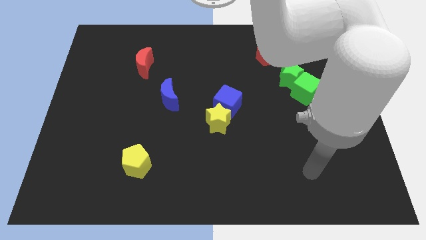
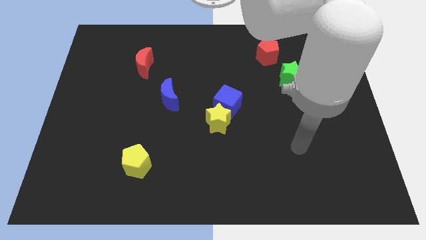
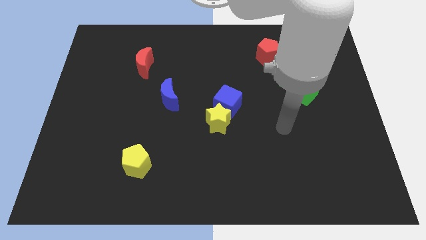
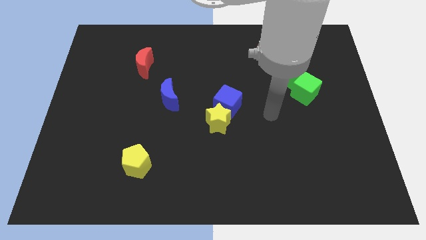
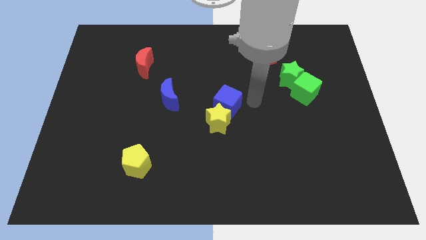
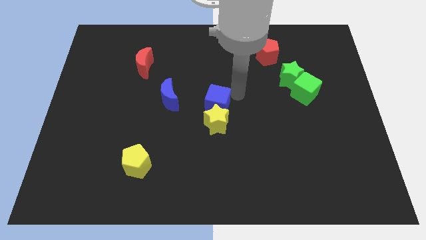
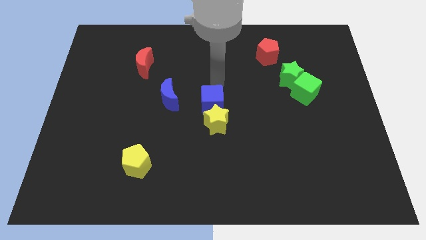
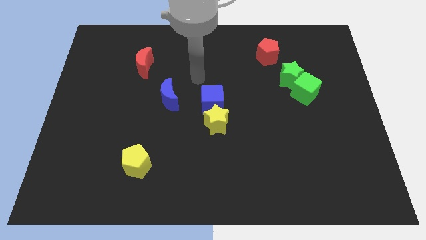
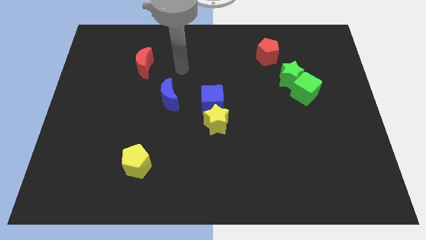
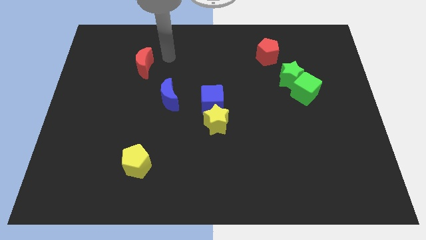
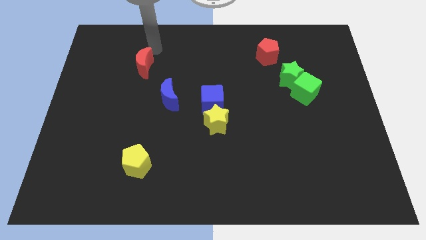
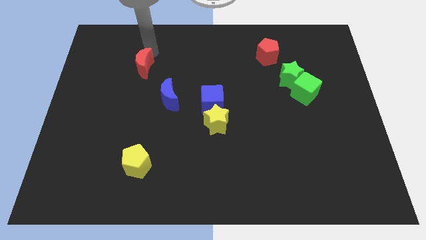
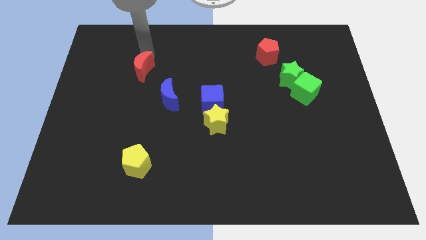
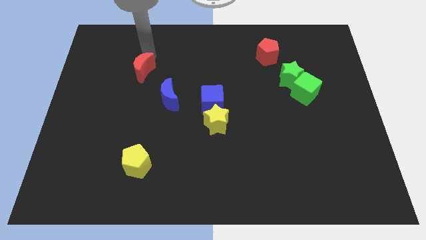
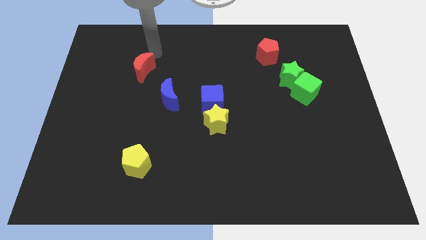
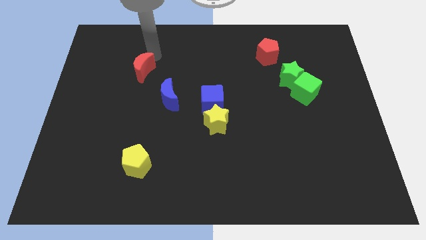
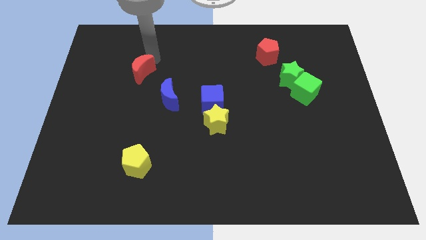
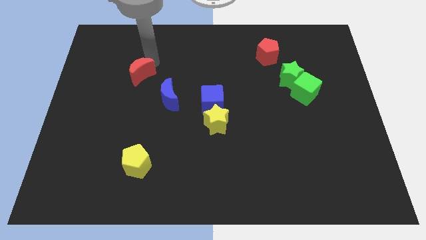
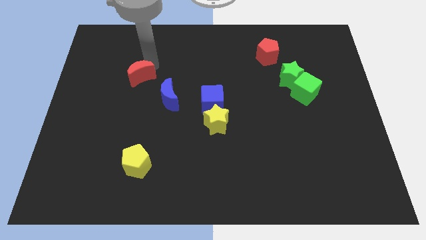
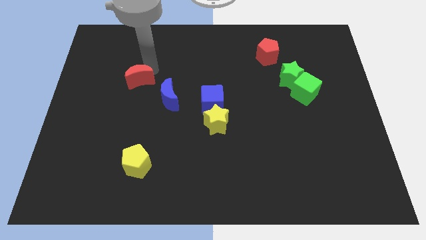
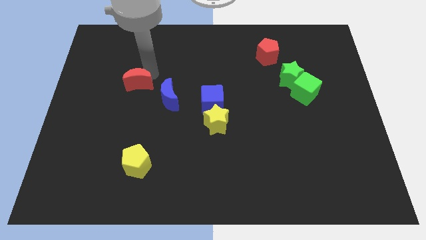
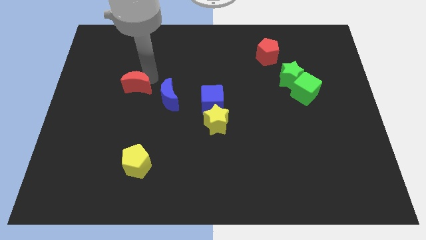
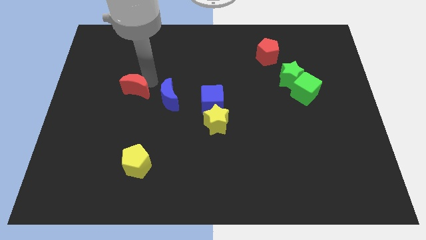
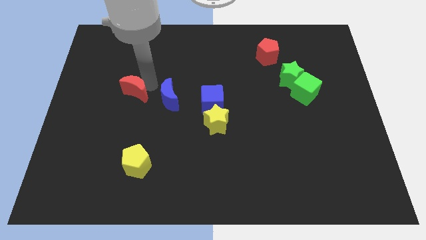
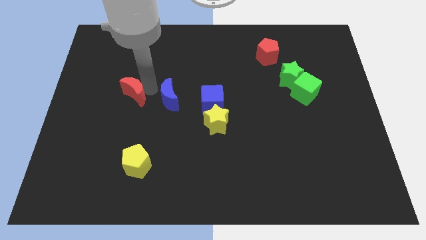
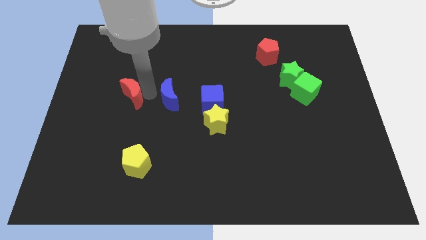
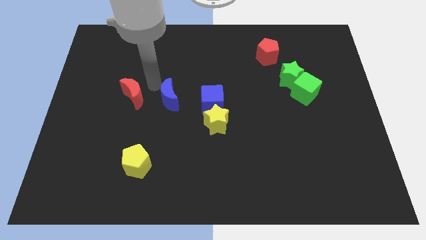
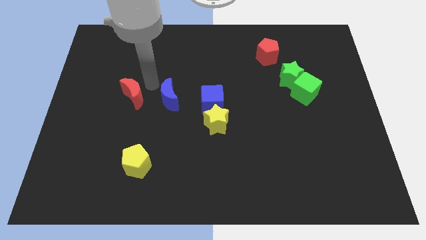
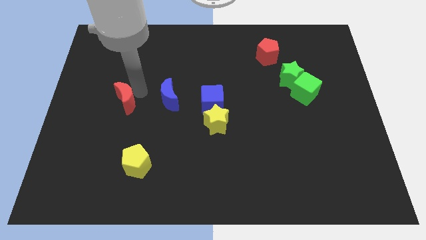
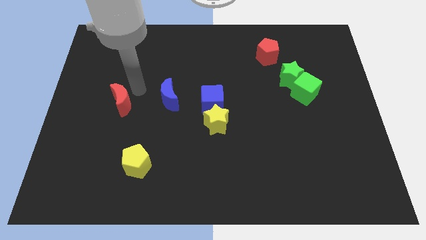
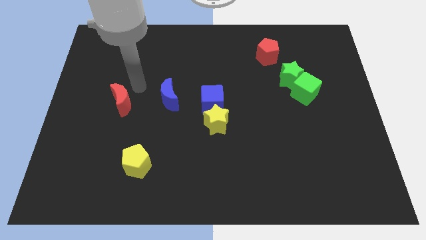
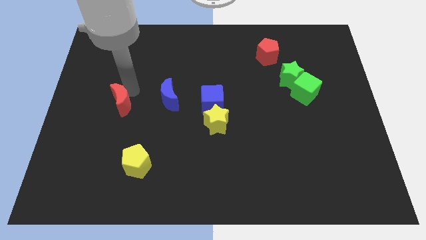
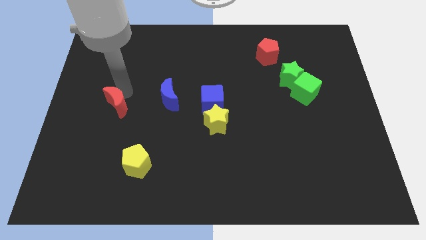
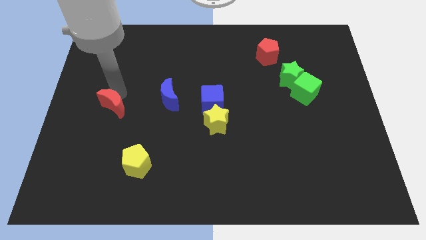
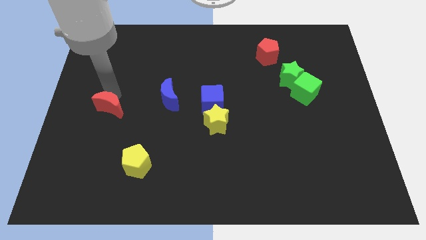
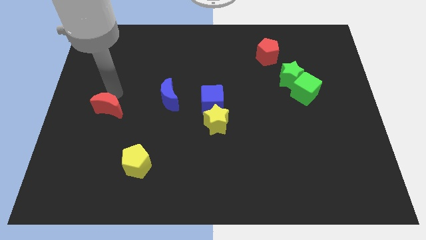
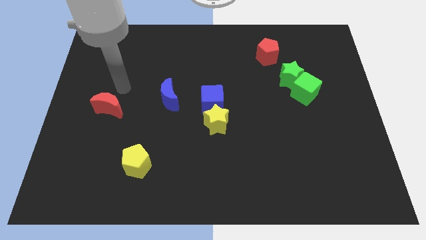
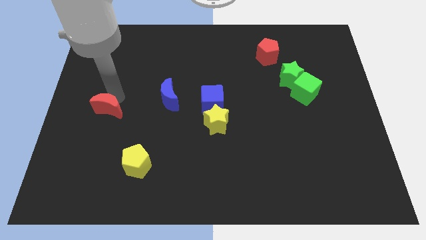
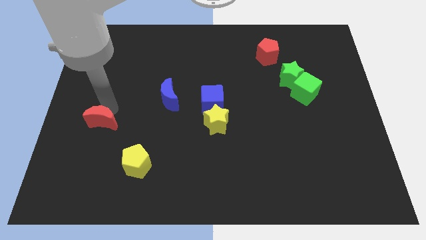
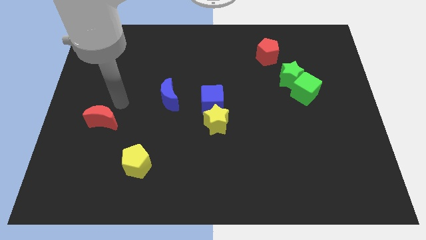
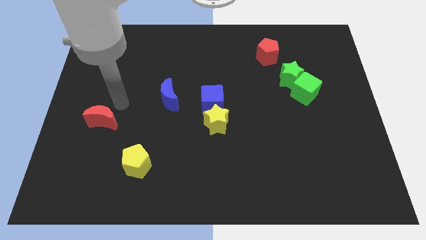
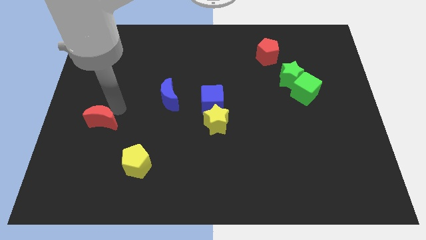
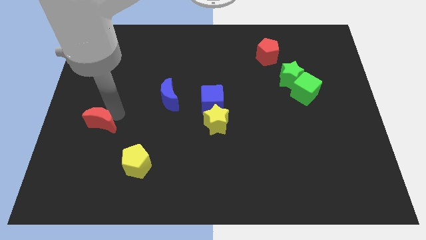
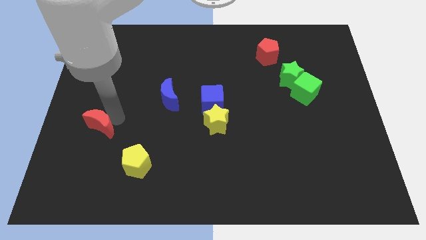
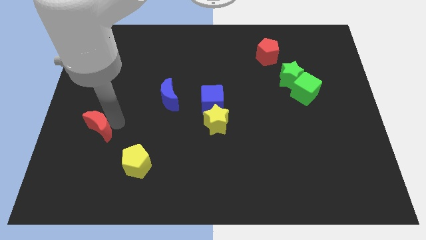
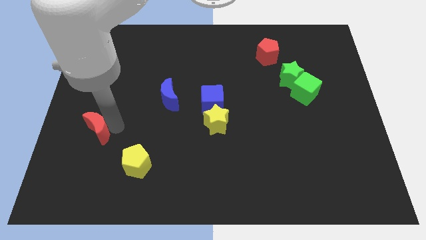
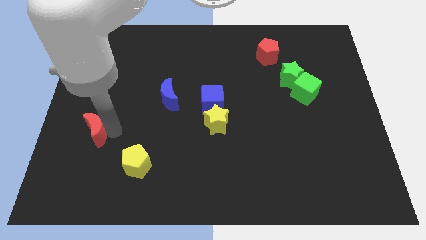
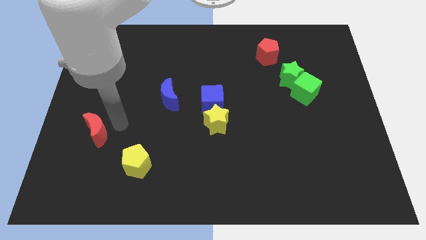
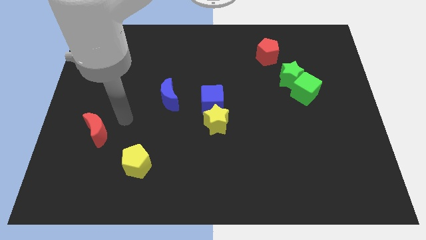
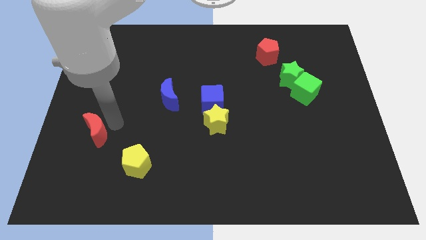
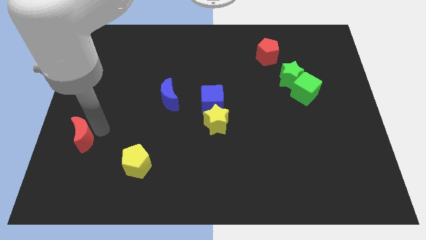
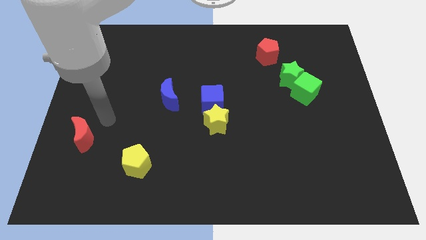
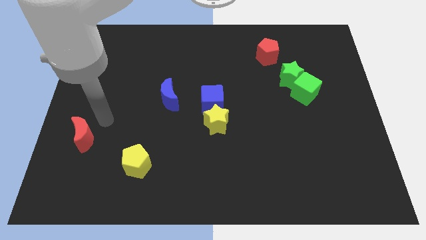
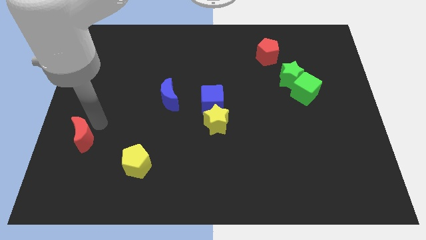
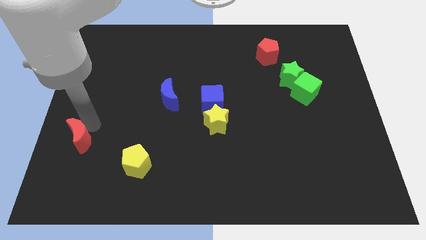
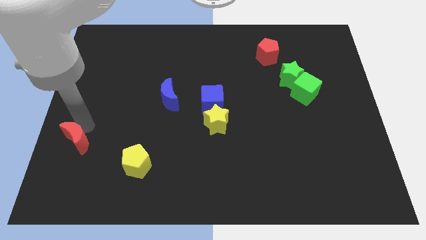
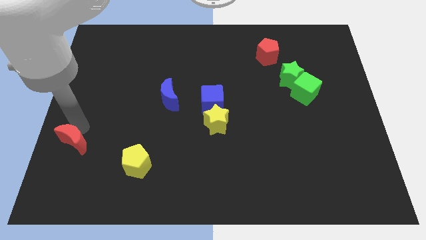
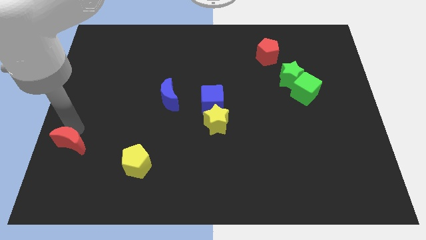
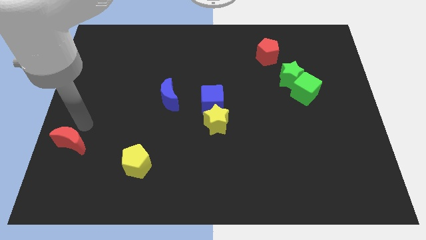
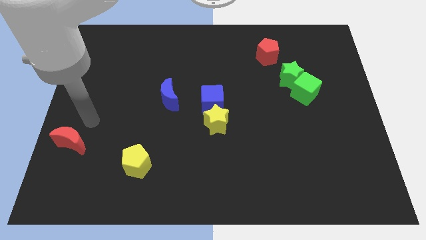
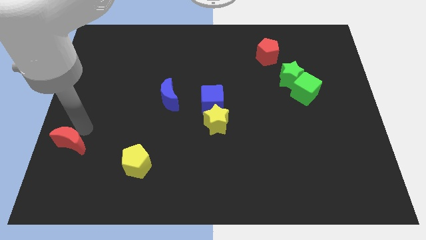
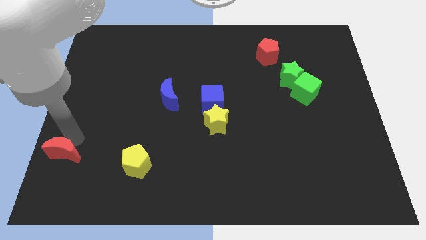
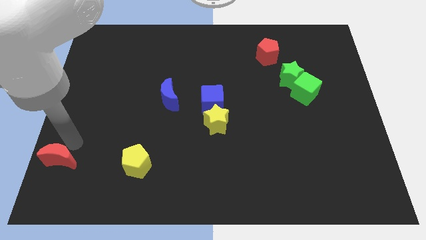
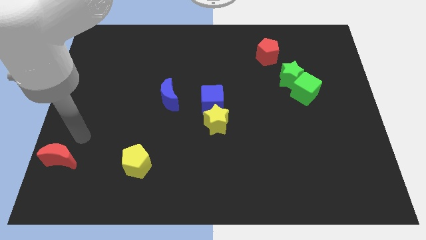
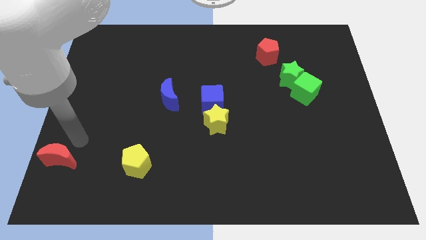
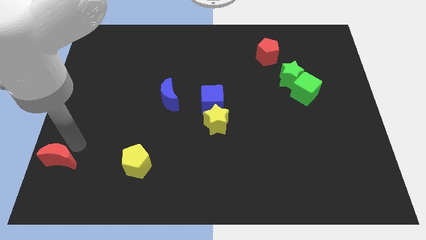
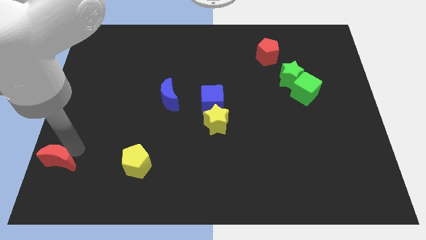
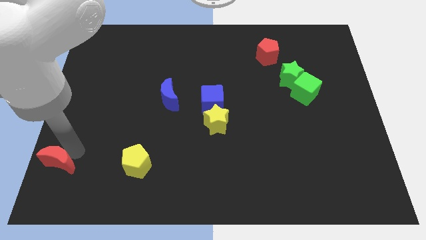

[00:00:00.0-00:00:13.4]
push the red moon to the bottom left of the board

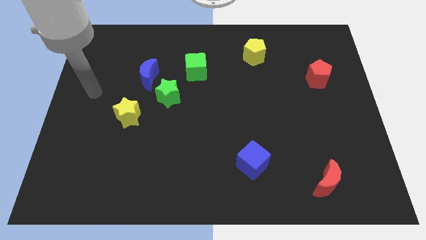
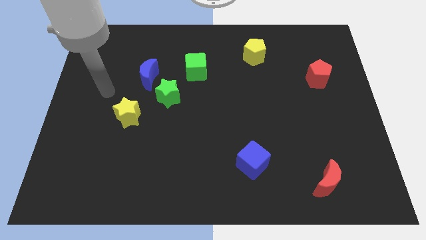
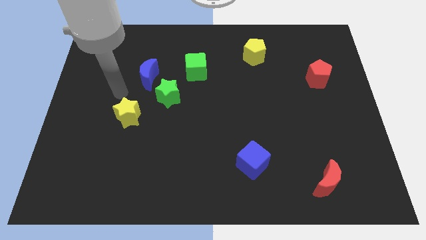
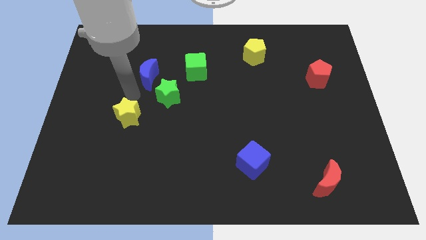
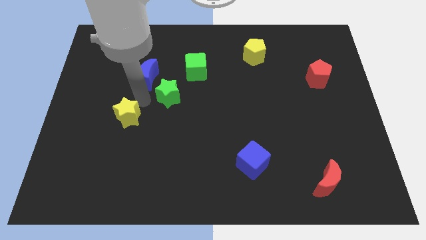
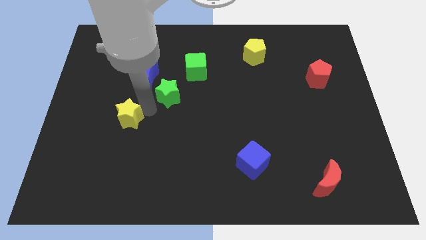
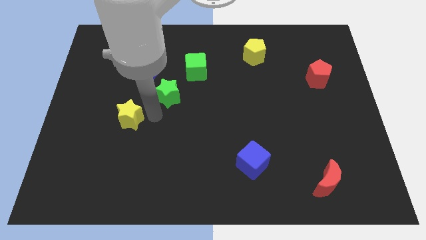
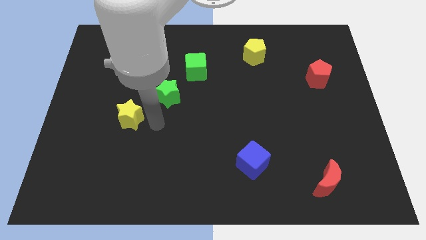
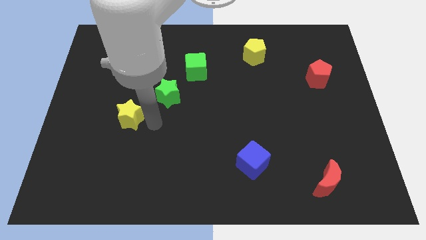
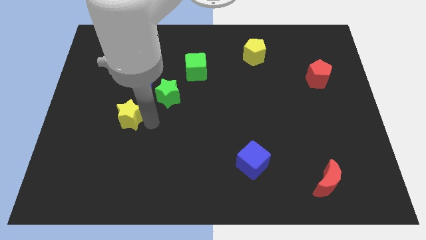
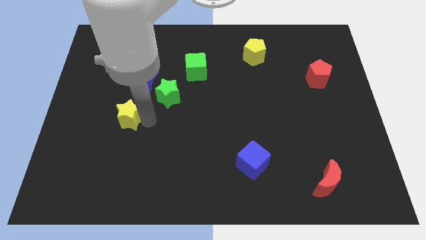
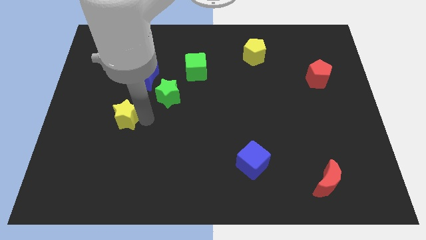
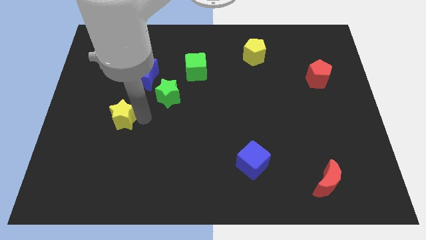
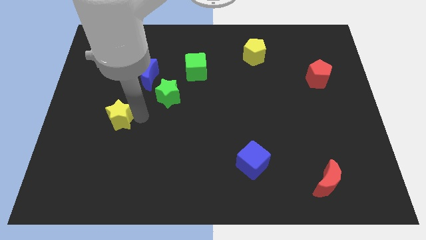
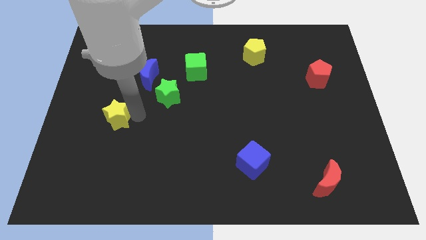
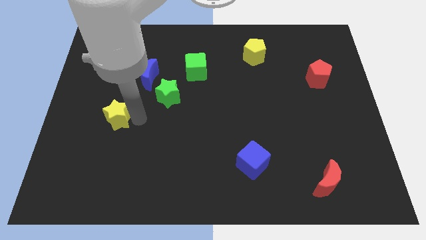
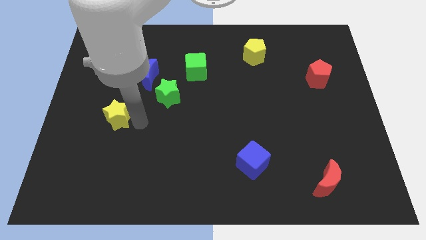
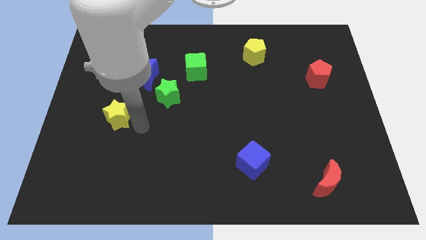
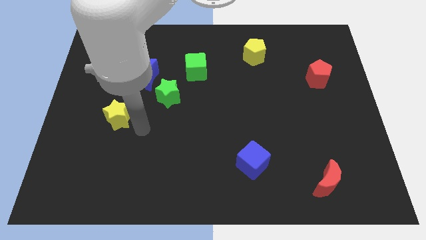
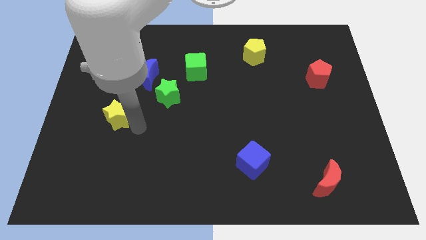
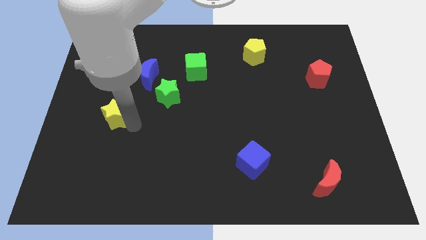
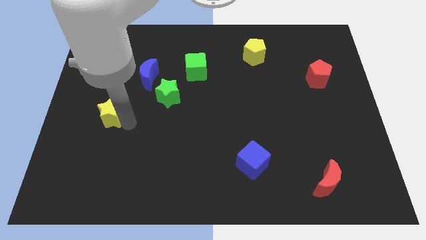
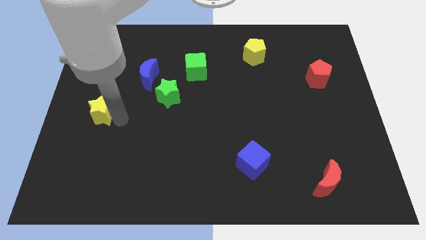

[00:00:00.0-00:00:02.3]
slide the yellow star to the center left
